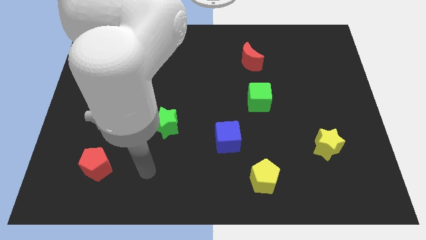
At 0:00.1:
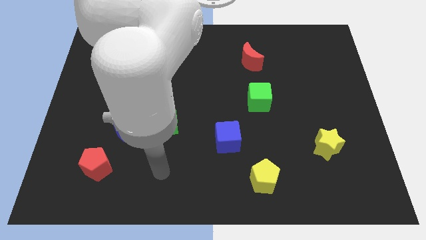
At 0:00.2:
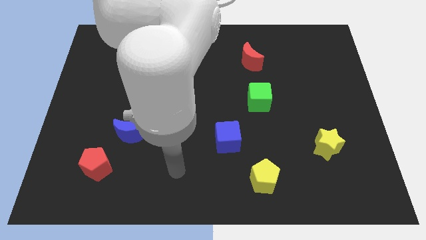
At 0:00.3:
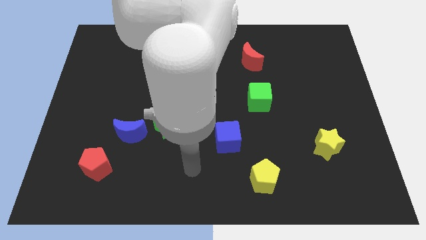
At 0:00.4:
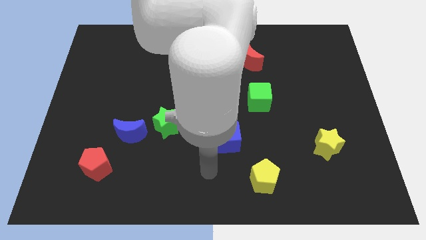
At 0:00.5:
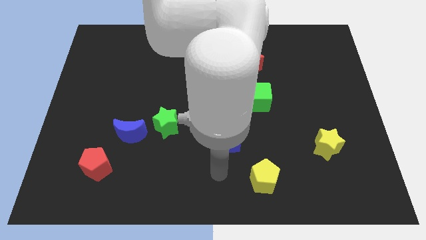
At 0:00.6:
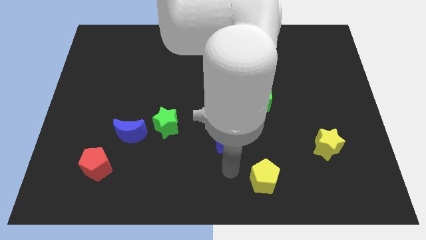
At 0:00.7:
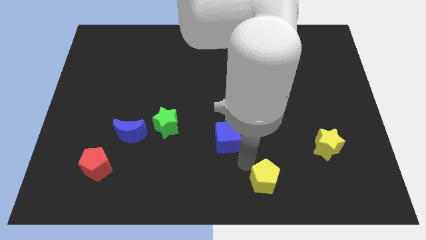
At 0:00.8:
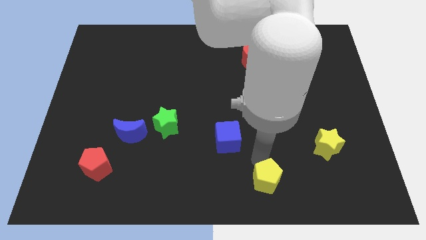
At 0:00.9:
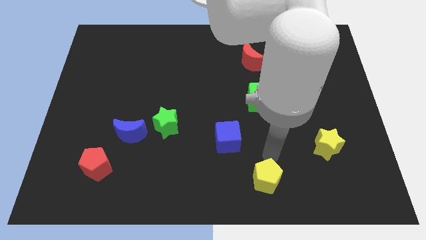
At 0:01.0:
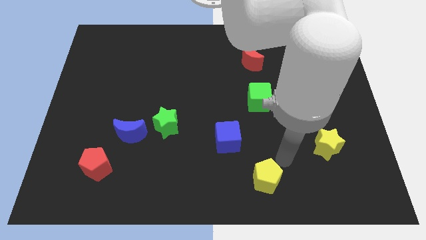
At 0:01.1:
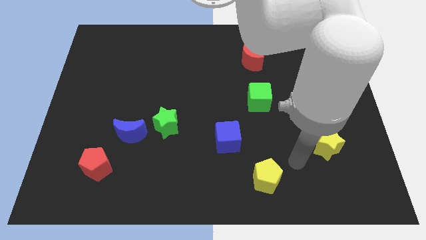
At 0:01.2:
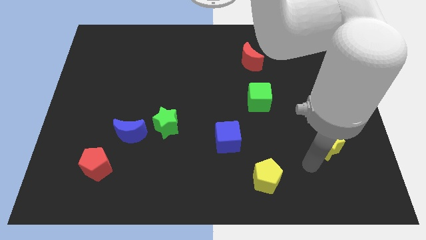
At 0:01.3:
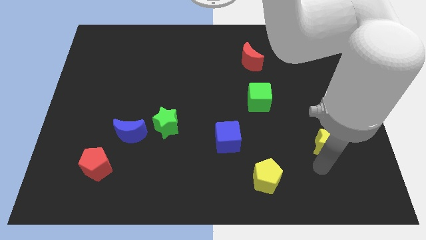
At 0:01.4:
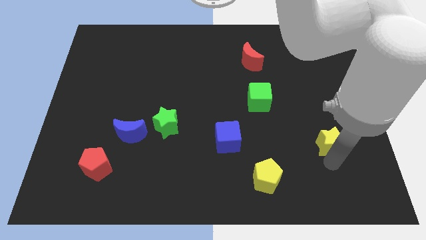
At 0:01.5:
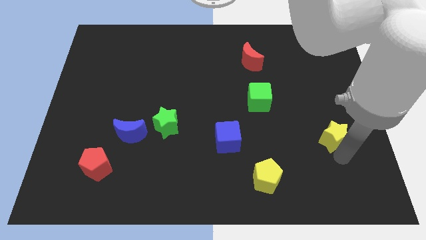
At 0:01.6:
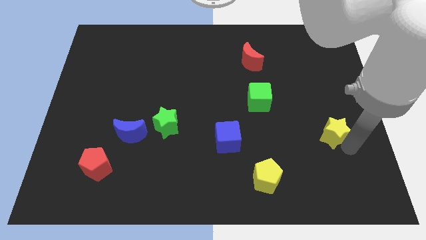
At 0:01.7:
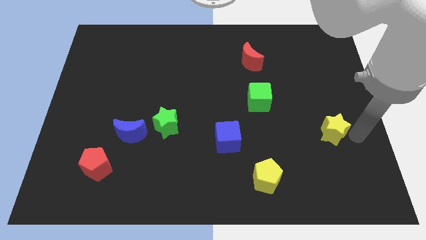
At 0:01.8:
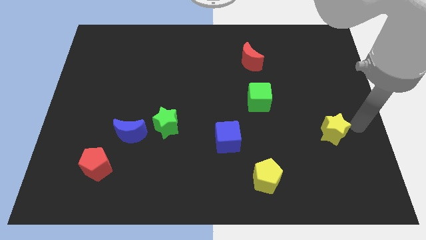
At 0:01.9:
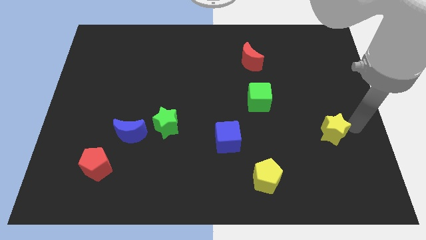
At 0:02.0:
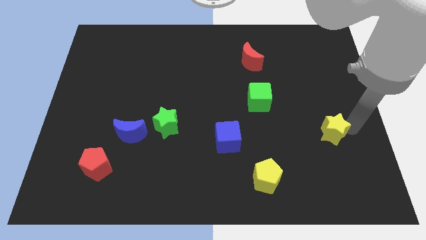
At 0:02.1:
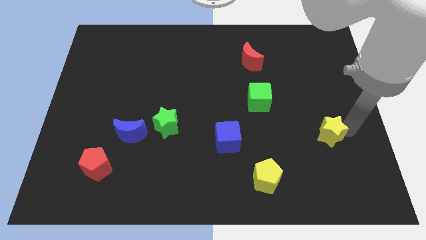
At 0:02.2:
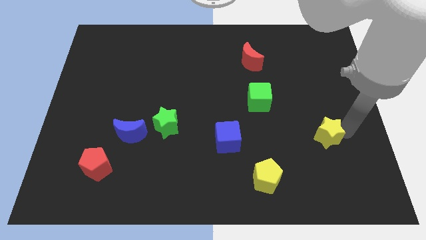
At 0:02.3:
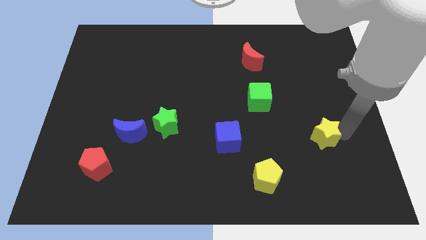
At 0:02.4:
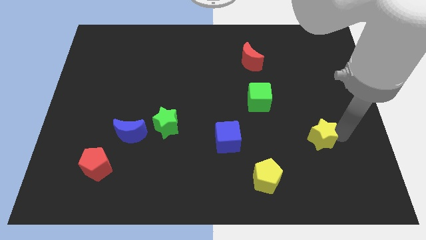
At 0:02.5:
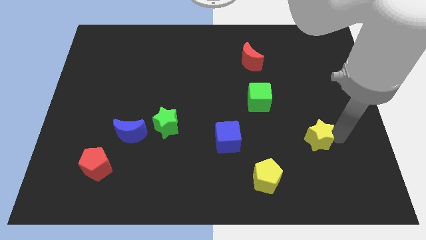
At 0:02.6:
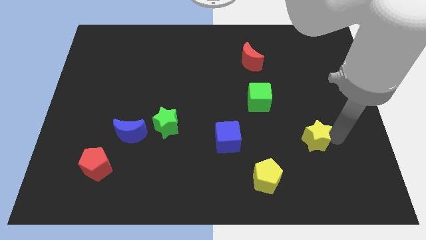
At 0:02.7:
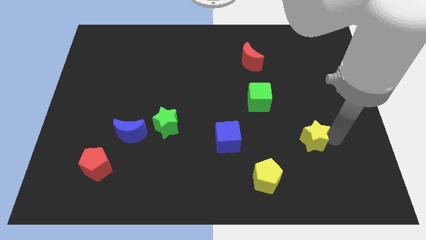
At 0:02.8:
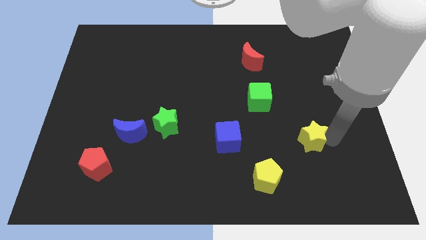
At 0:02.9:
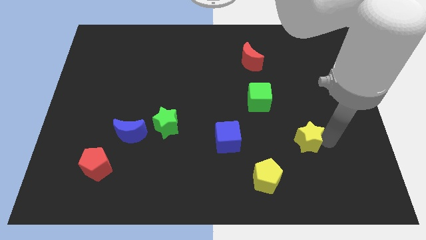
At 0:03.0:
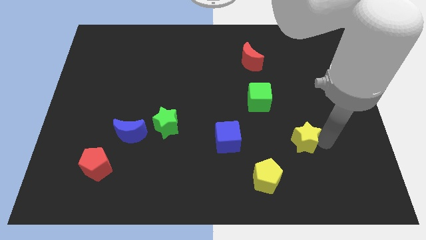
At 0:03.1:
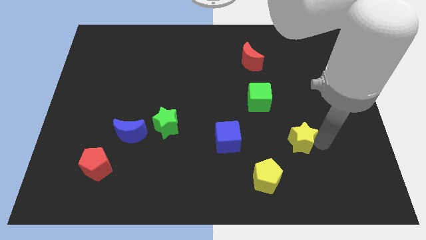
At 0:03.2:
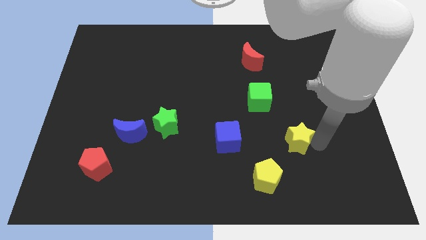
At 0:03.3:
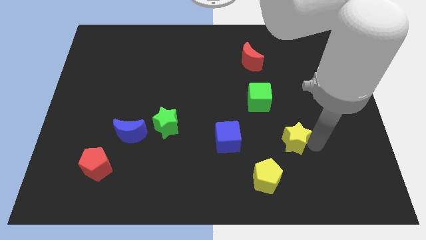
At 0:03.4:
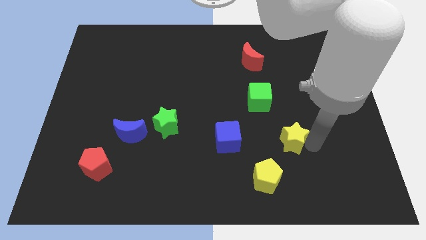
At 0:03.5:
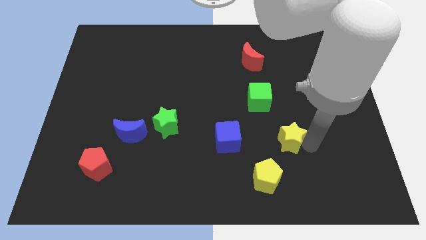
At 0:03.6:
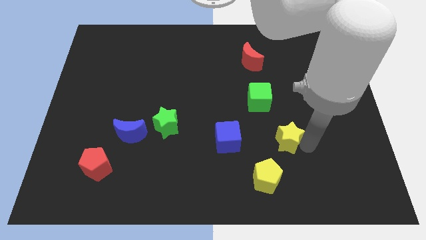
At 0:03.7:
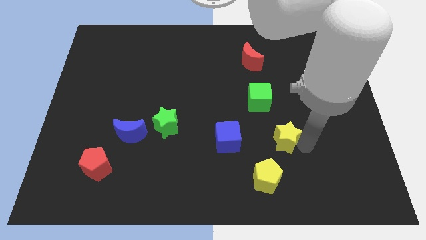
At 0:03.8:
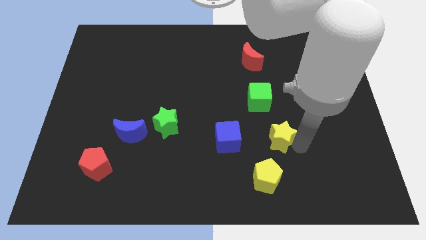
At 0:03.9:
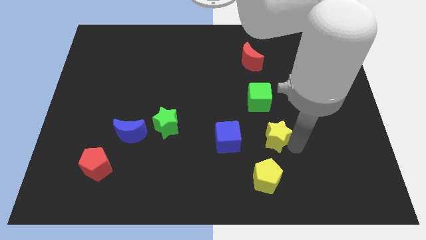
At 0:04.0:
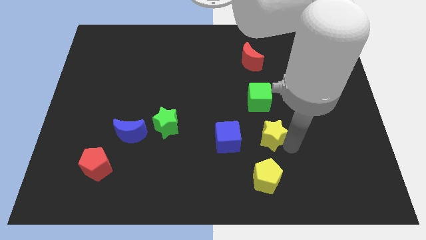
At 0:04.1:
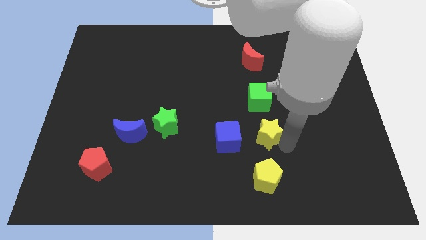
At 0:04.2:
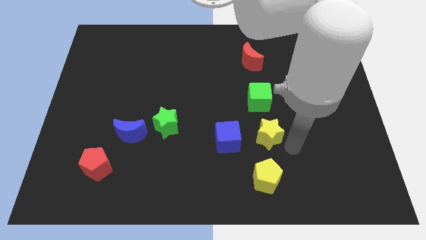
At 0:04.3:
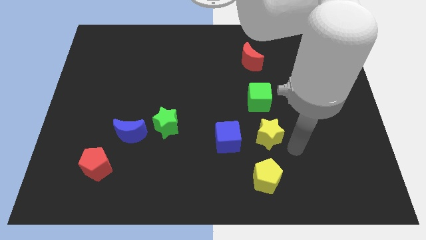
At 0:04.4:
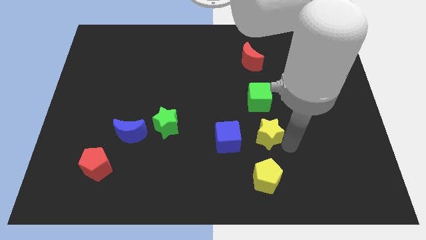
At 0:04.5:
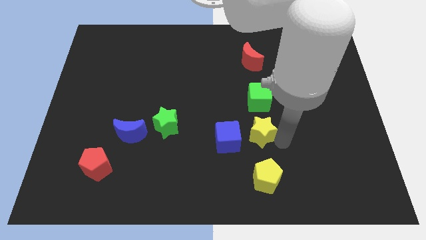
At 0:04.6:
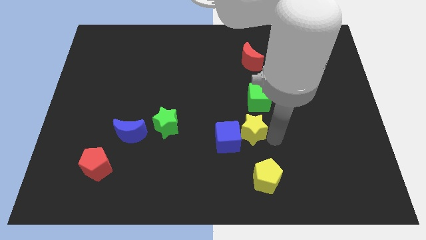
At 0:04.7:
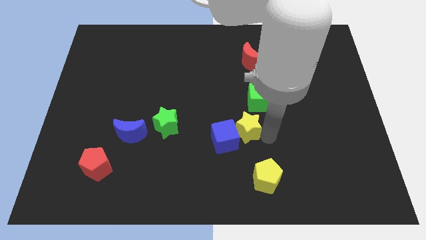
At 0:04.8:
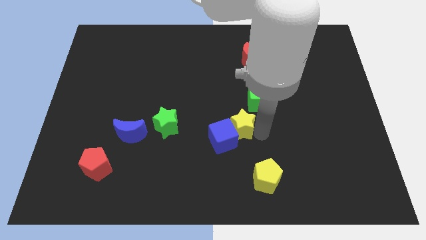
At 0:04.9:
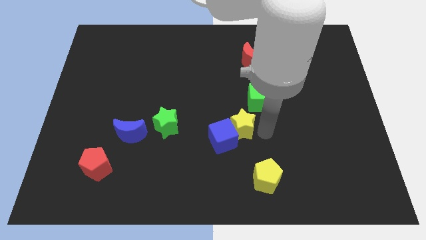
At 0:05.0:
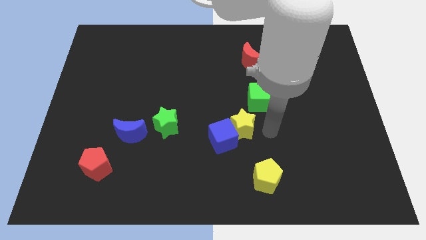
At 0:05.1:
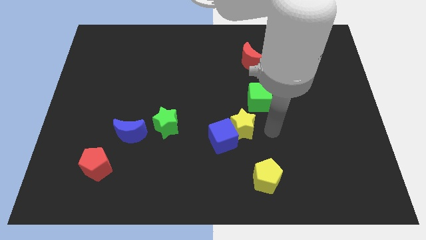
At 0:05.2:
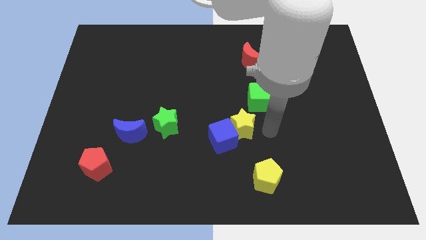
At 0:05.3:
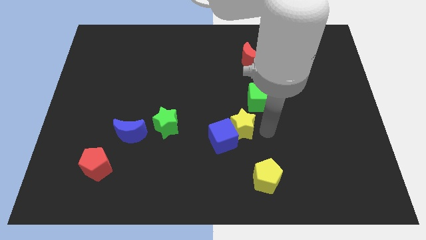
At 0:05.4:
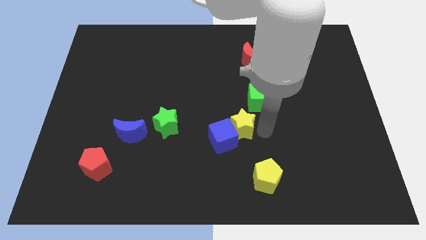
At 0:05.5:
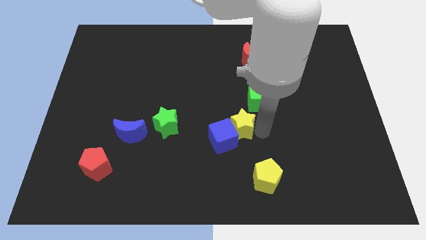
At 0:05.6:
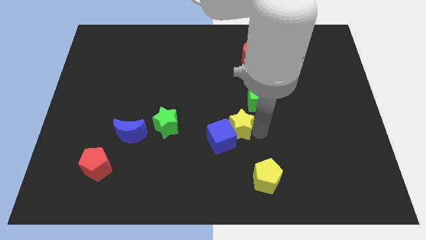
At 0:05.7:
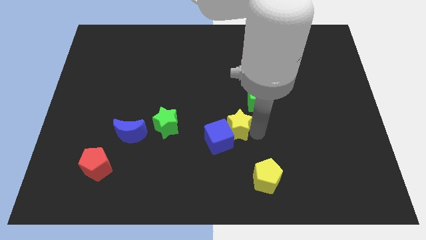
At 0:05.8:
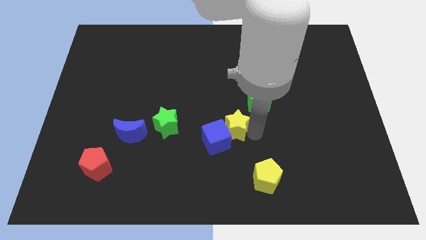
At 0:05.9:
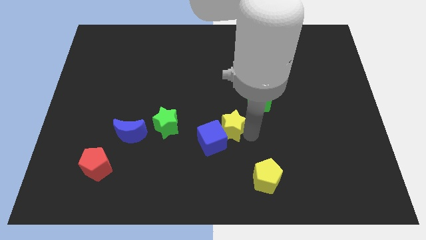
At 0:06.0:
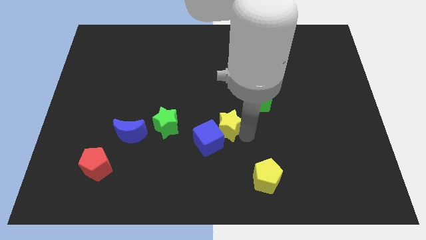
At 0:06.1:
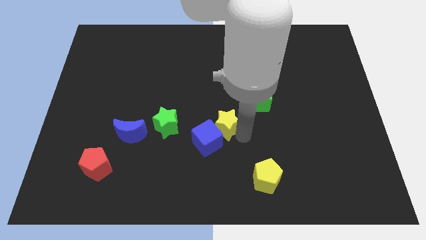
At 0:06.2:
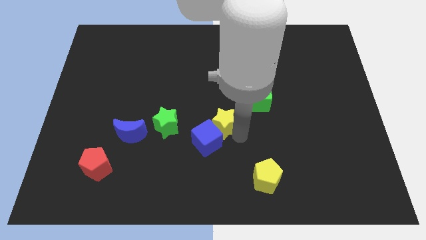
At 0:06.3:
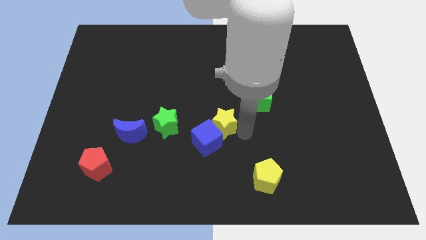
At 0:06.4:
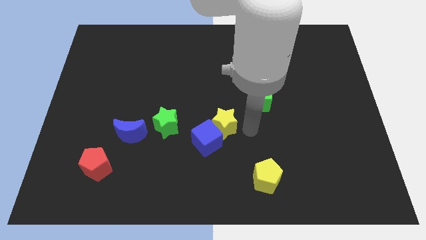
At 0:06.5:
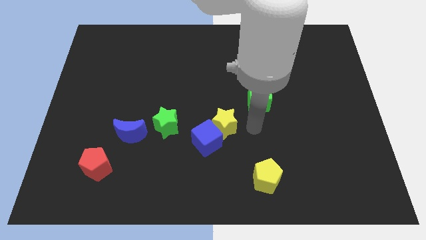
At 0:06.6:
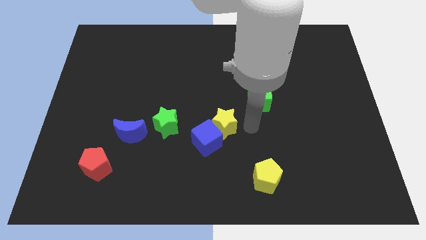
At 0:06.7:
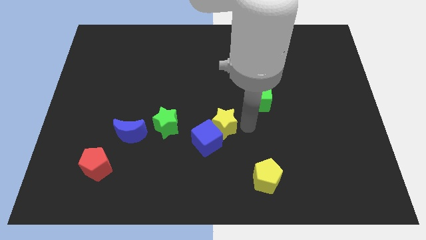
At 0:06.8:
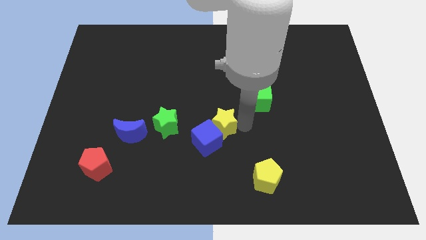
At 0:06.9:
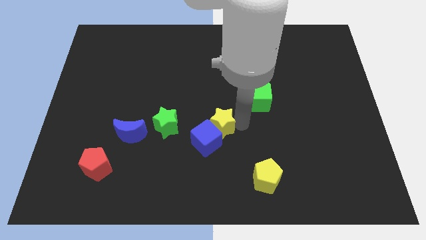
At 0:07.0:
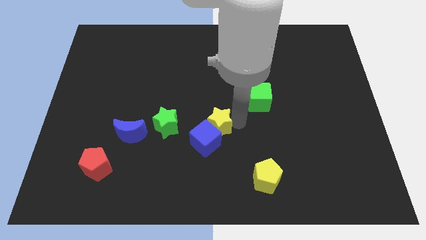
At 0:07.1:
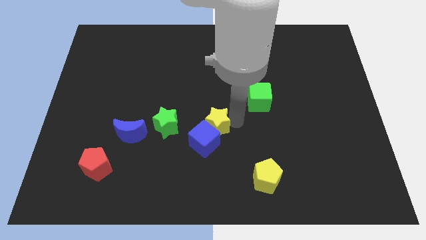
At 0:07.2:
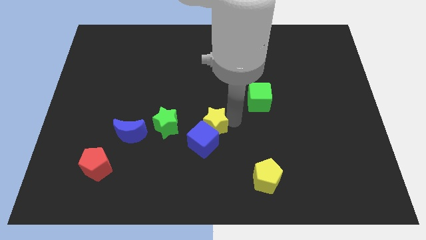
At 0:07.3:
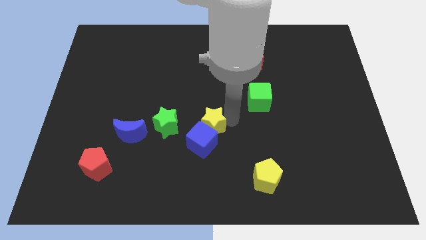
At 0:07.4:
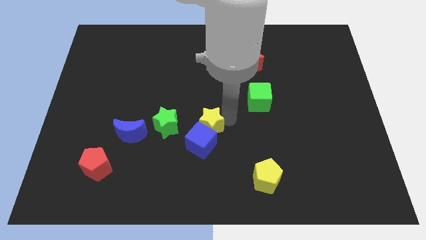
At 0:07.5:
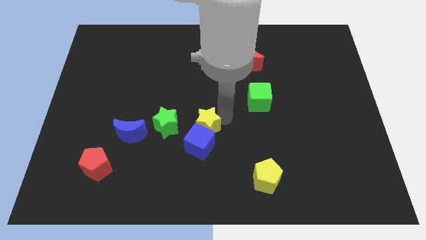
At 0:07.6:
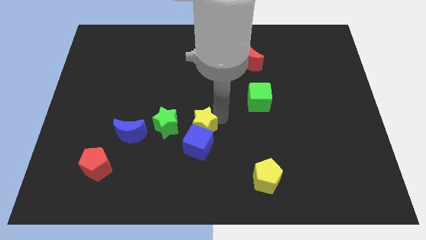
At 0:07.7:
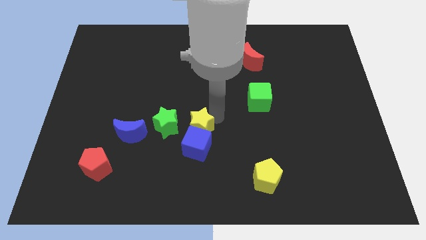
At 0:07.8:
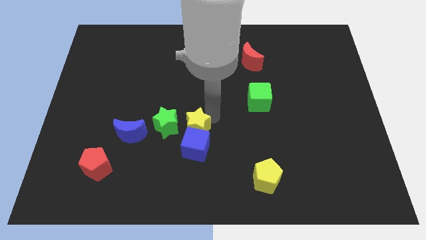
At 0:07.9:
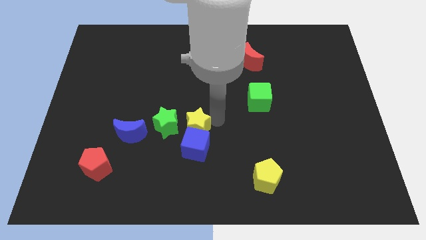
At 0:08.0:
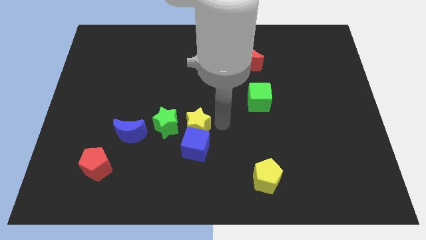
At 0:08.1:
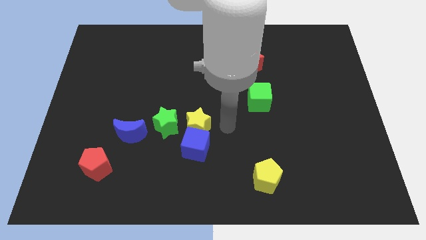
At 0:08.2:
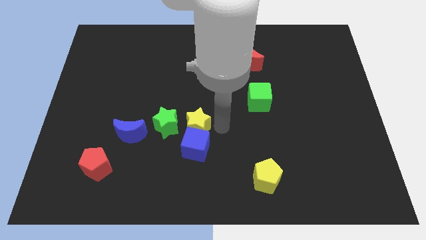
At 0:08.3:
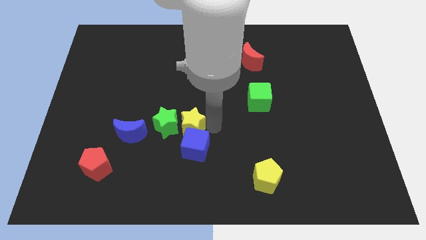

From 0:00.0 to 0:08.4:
move the yellow star close to the green star
